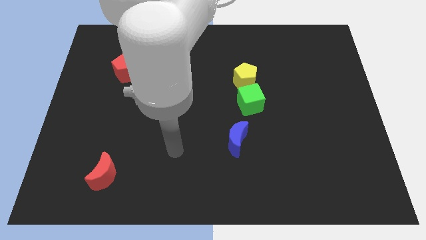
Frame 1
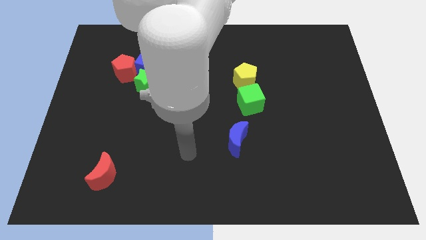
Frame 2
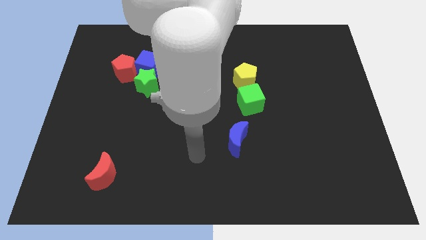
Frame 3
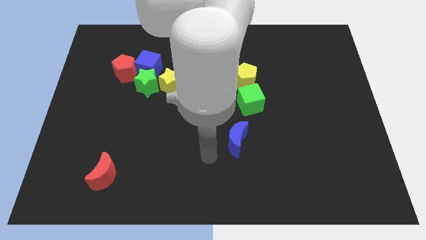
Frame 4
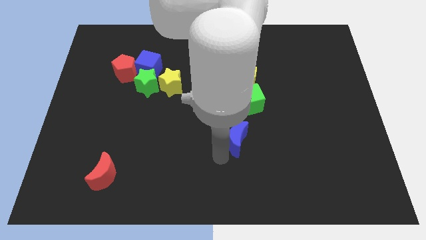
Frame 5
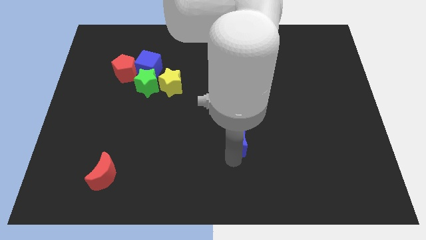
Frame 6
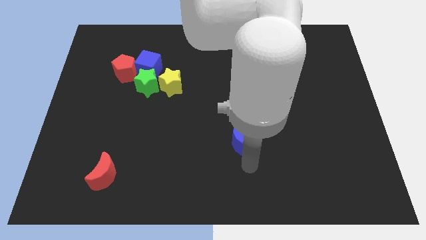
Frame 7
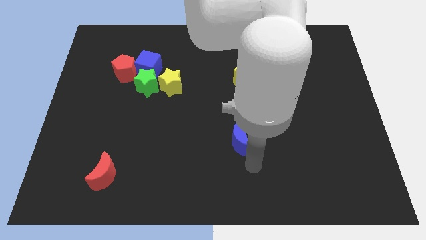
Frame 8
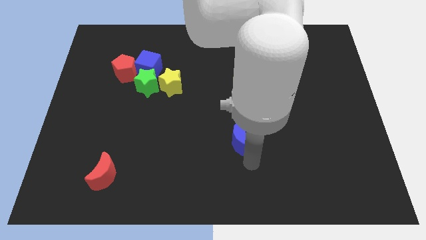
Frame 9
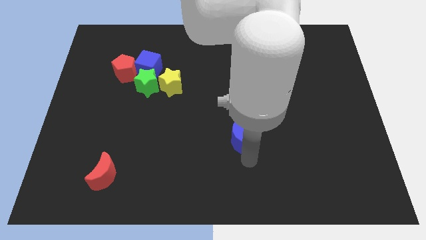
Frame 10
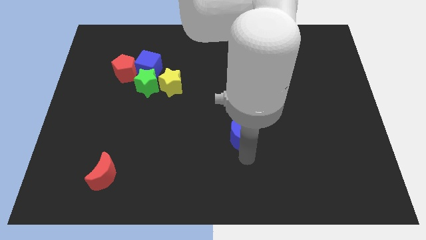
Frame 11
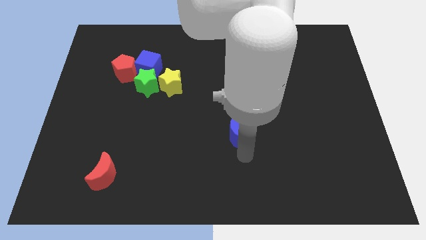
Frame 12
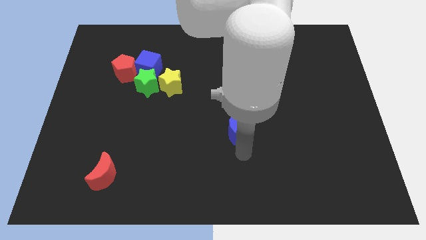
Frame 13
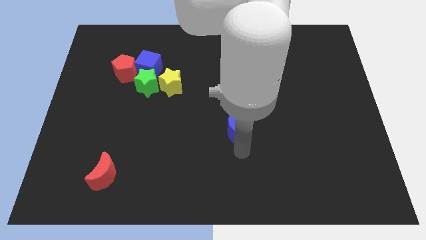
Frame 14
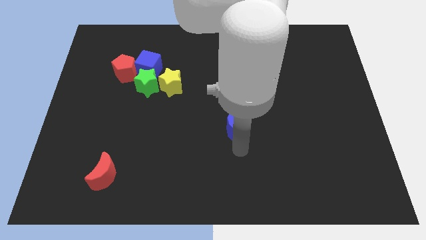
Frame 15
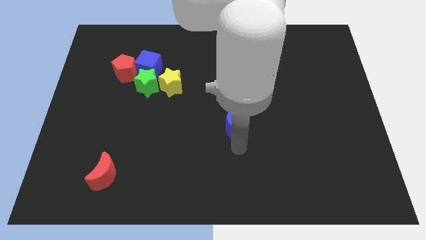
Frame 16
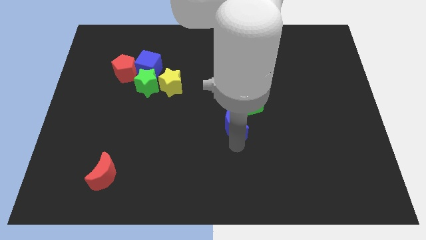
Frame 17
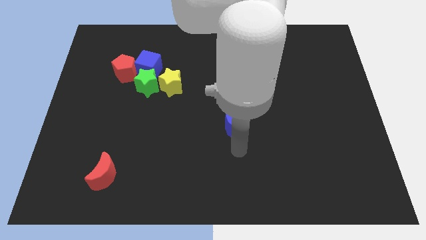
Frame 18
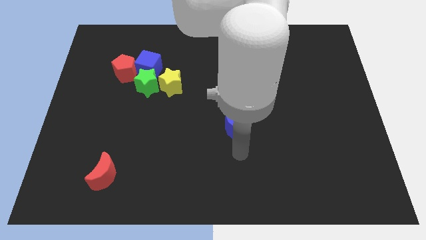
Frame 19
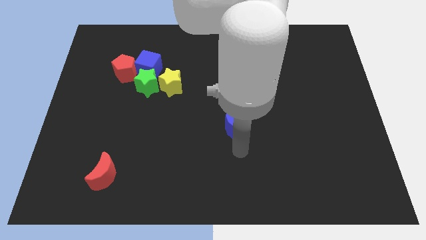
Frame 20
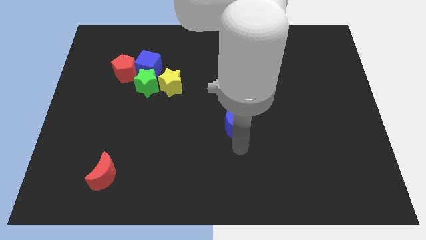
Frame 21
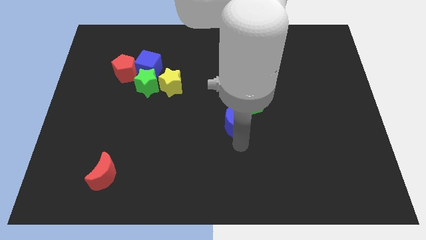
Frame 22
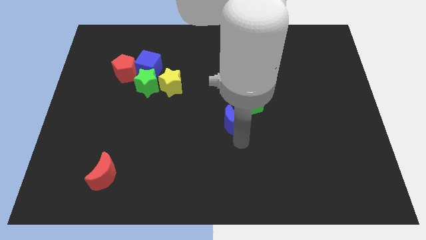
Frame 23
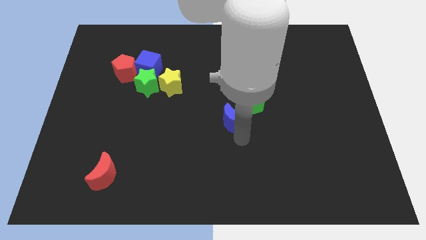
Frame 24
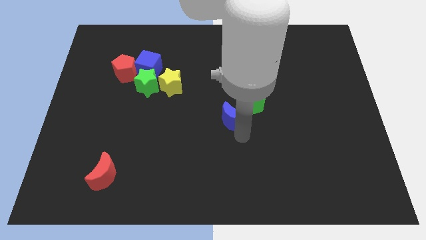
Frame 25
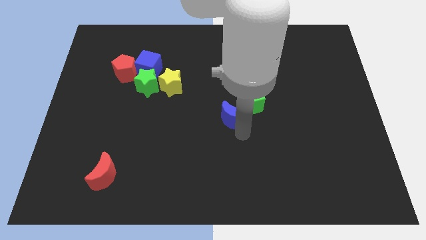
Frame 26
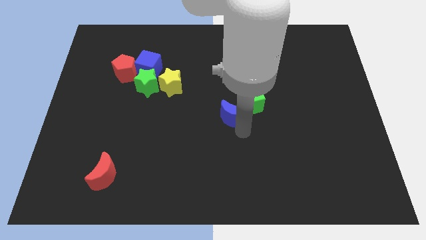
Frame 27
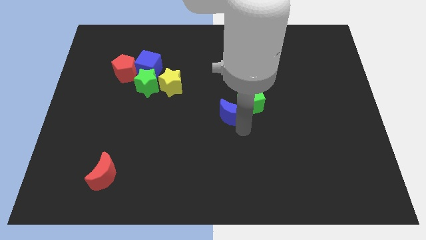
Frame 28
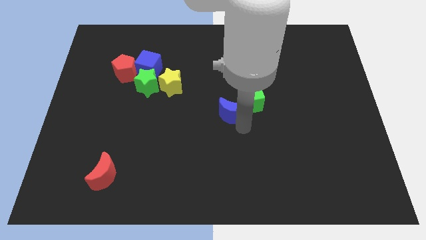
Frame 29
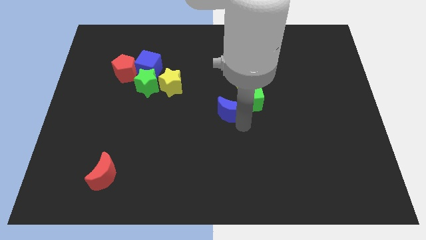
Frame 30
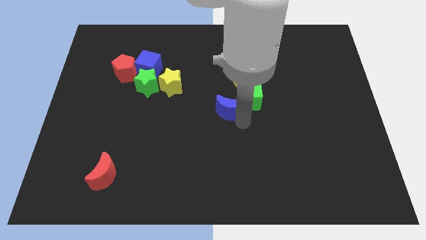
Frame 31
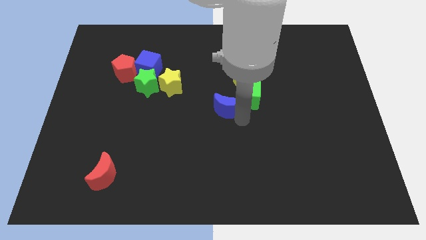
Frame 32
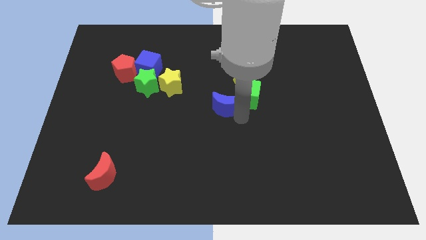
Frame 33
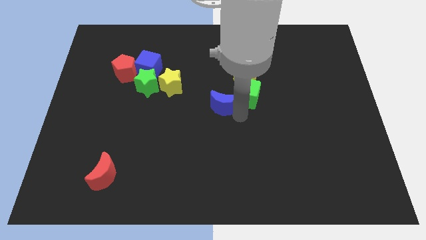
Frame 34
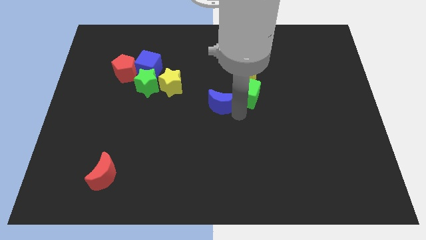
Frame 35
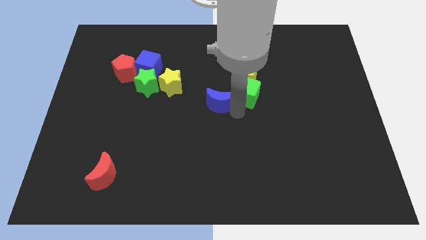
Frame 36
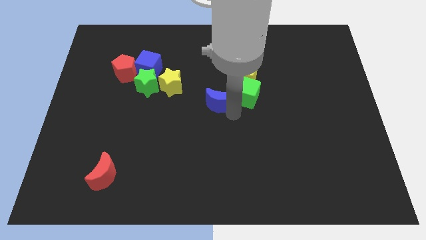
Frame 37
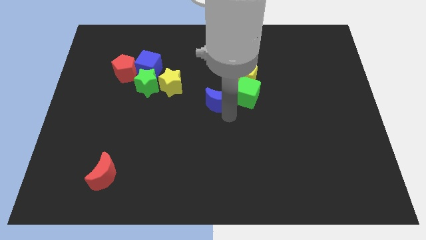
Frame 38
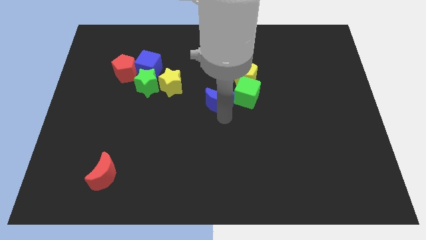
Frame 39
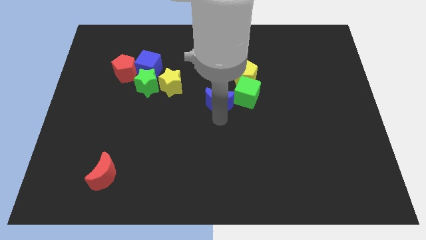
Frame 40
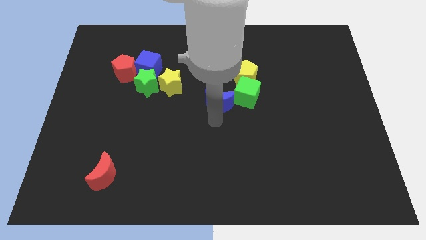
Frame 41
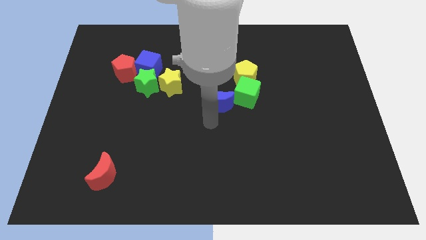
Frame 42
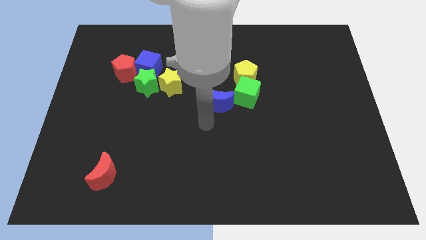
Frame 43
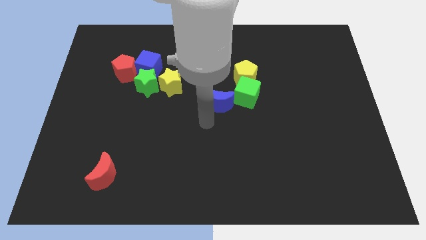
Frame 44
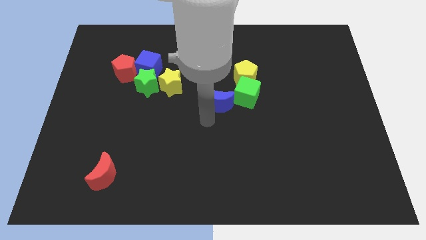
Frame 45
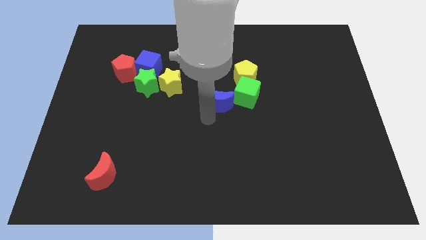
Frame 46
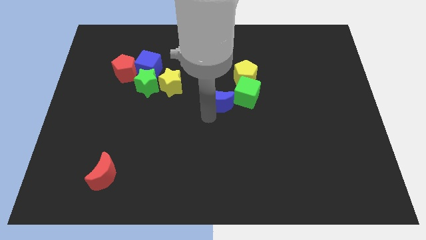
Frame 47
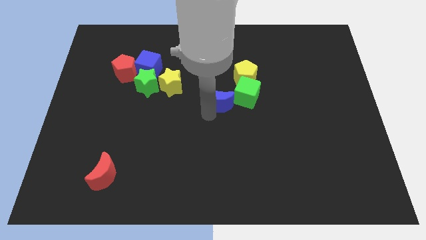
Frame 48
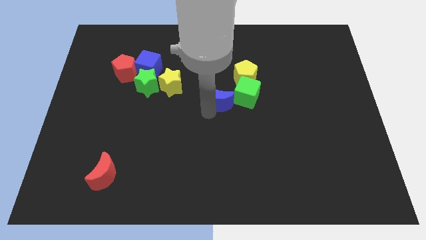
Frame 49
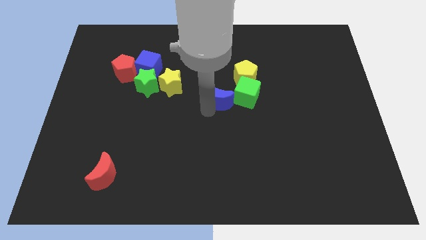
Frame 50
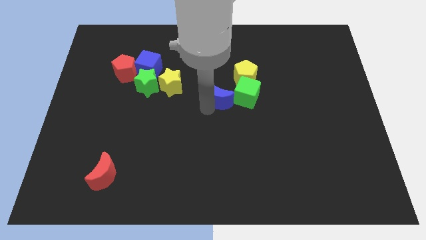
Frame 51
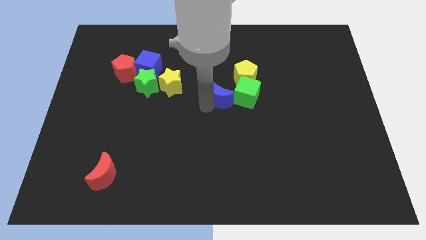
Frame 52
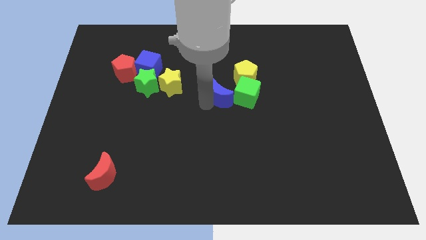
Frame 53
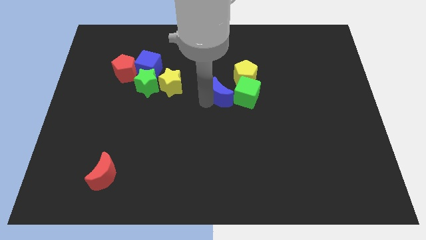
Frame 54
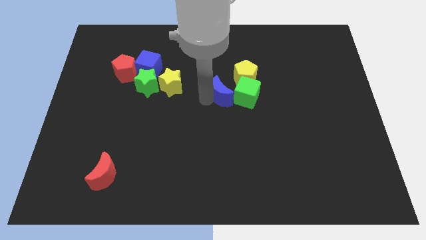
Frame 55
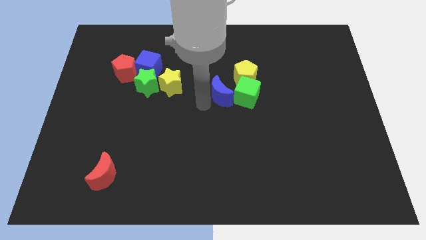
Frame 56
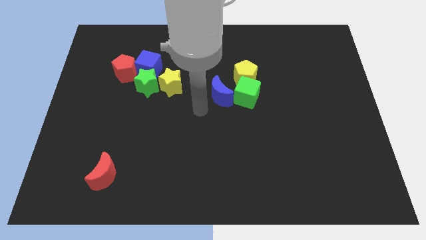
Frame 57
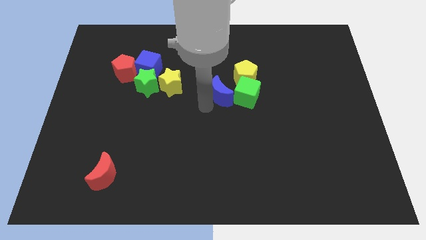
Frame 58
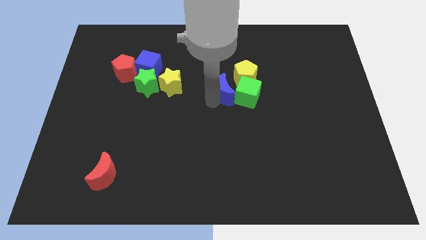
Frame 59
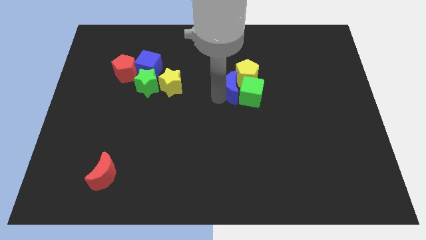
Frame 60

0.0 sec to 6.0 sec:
slide the blue moon towards the yellow pentagon

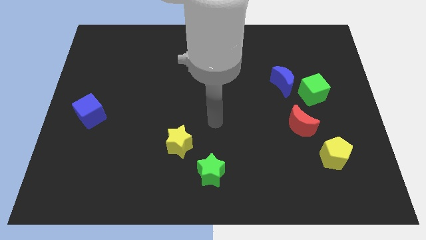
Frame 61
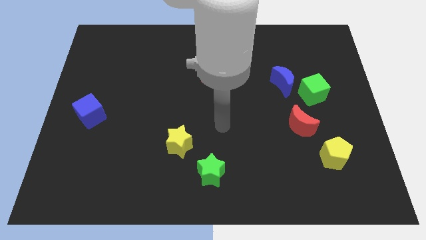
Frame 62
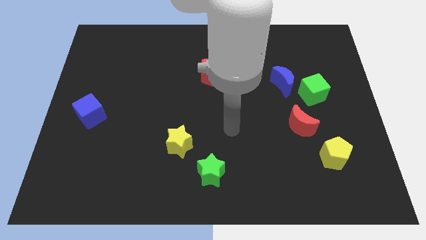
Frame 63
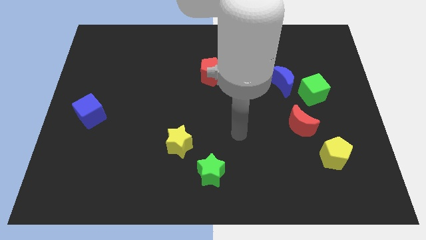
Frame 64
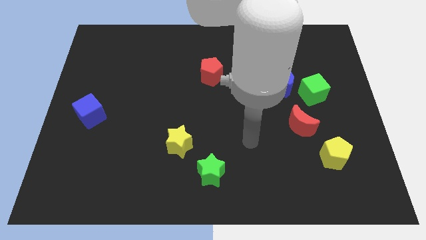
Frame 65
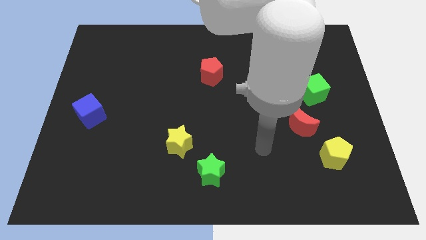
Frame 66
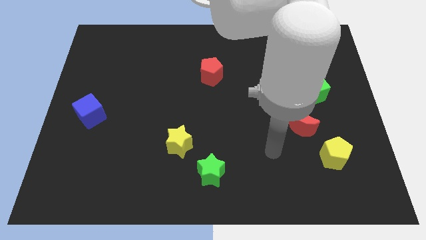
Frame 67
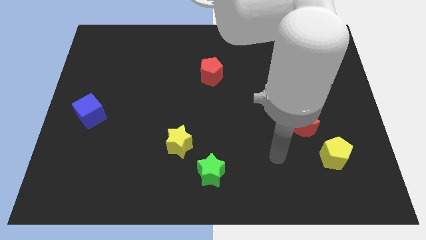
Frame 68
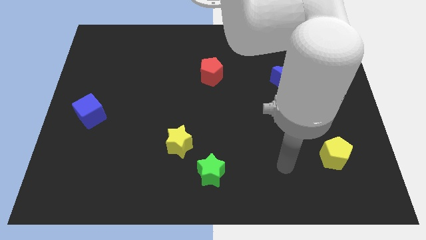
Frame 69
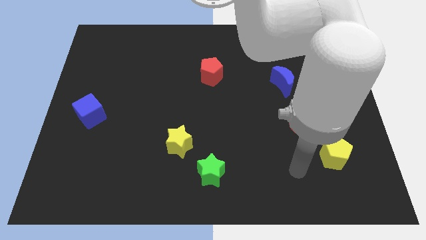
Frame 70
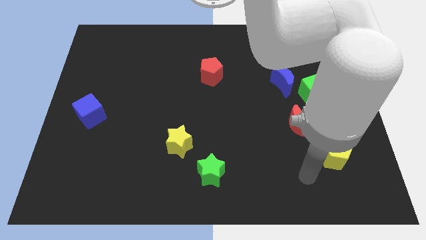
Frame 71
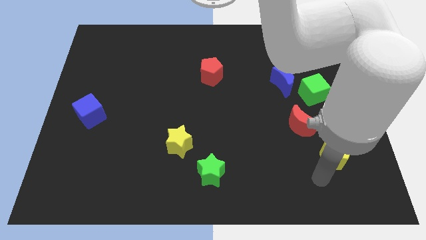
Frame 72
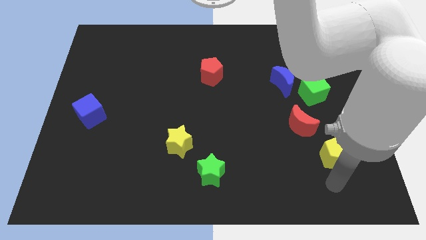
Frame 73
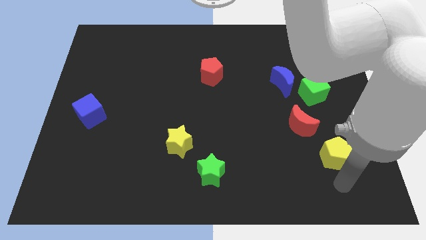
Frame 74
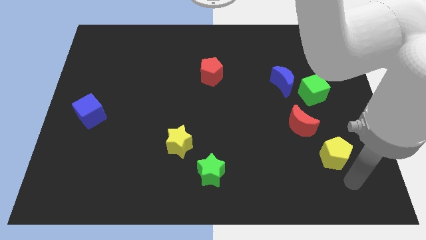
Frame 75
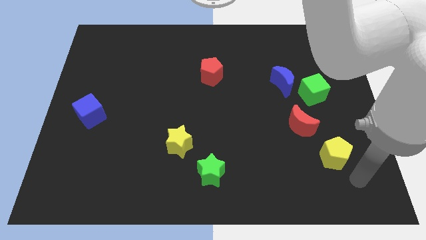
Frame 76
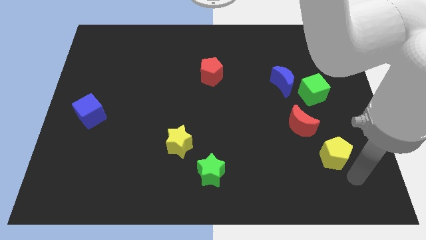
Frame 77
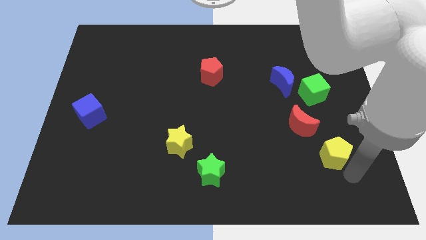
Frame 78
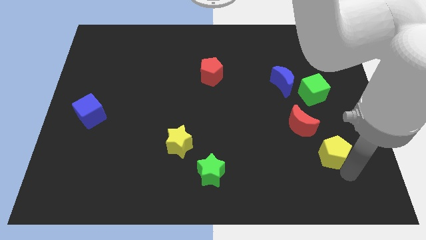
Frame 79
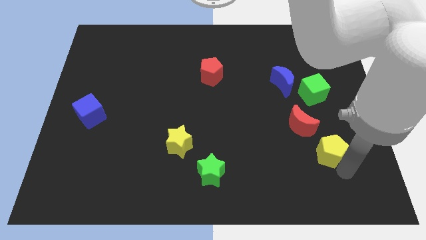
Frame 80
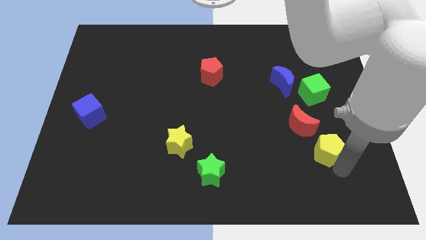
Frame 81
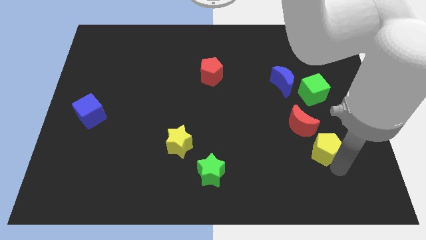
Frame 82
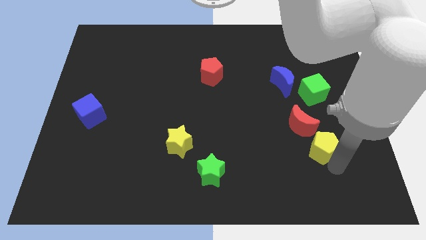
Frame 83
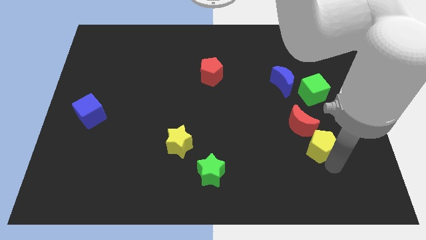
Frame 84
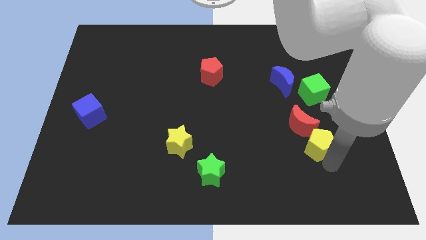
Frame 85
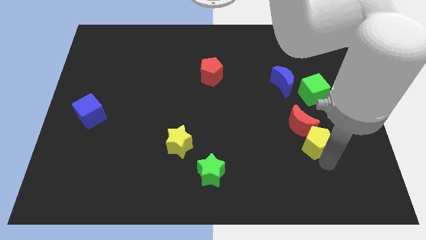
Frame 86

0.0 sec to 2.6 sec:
slide the yellow pentagon towards the red moon
